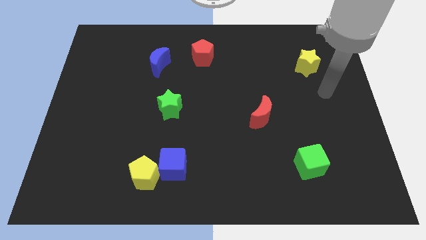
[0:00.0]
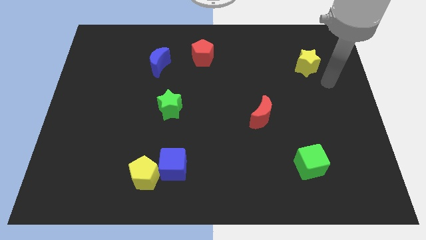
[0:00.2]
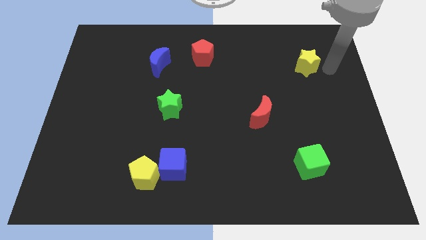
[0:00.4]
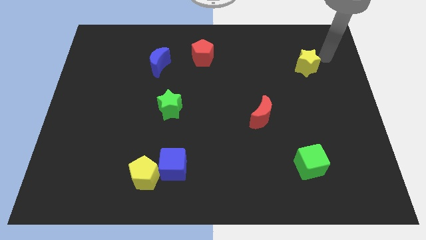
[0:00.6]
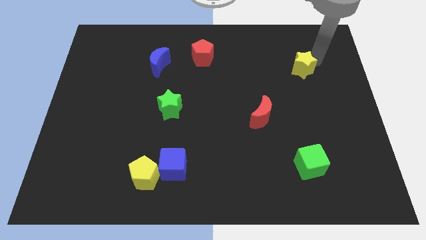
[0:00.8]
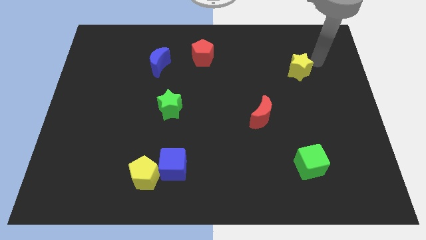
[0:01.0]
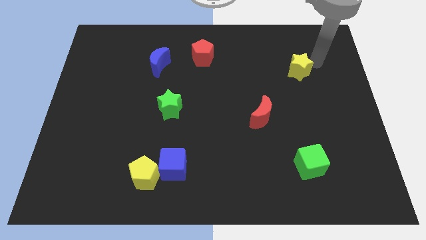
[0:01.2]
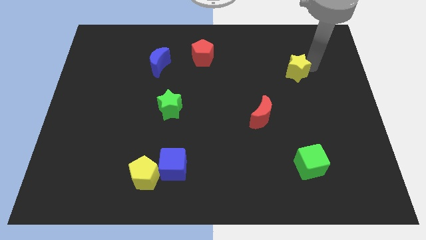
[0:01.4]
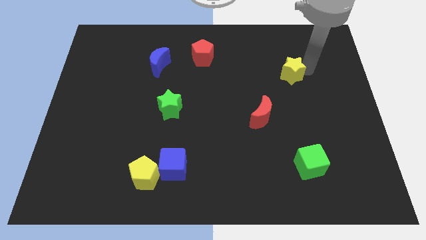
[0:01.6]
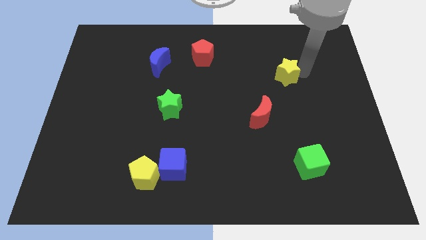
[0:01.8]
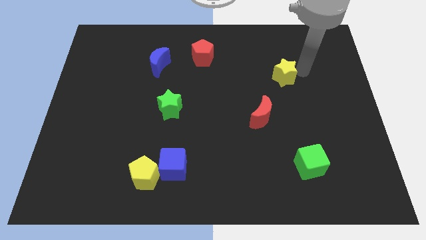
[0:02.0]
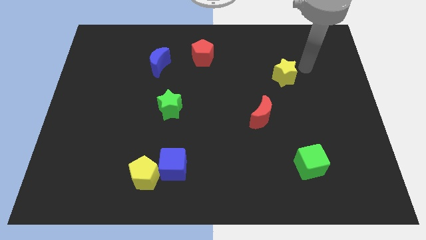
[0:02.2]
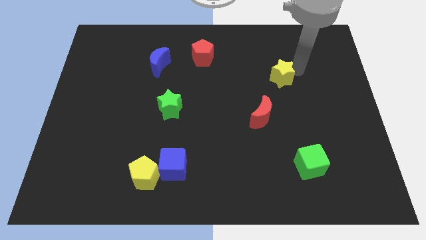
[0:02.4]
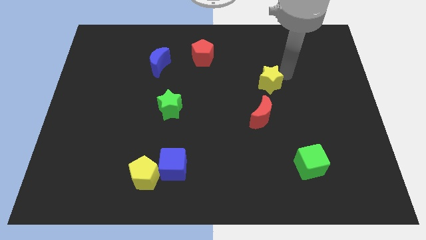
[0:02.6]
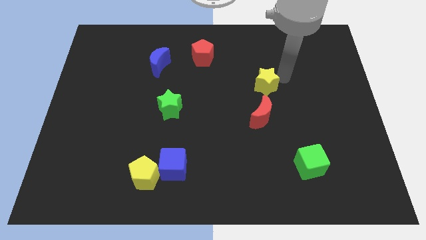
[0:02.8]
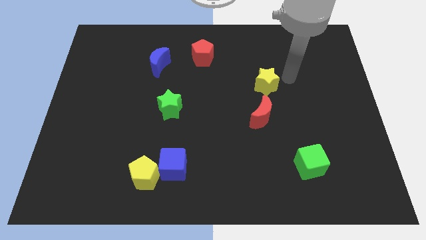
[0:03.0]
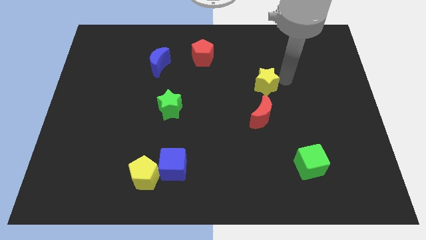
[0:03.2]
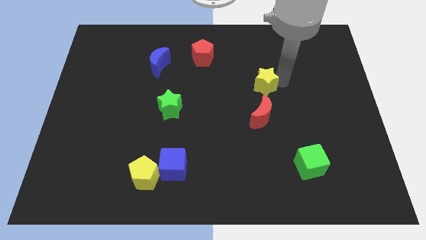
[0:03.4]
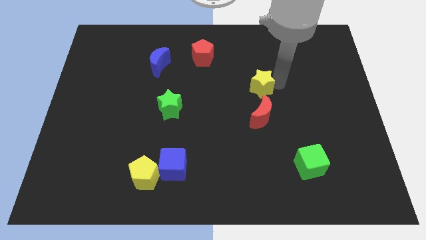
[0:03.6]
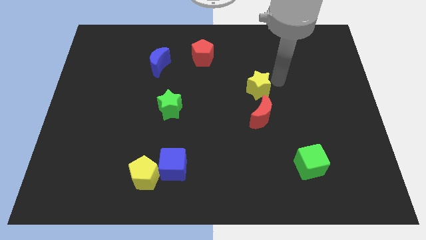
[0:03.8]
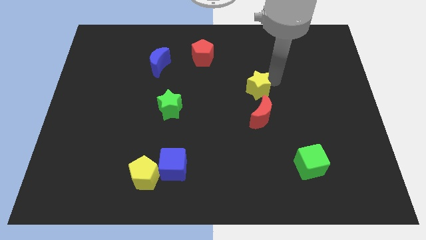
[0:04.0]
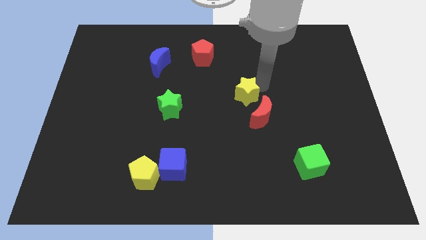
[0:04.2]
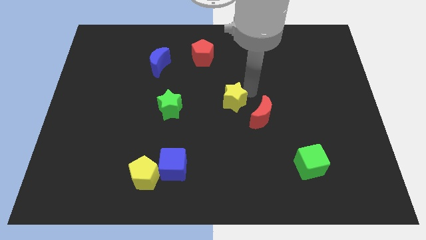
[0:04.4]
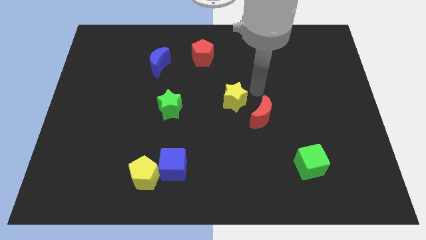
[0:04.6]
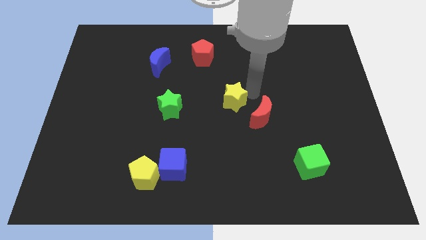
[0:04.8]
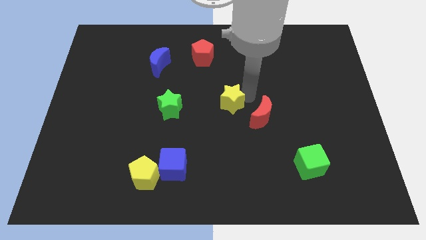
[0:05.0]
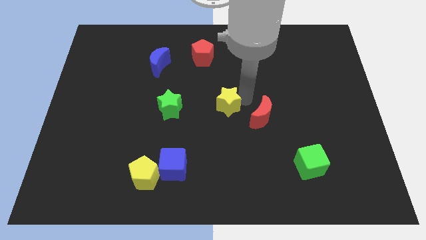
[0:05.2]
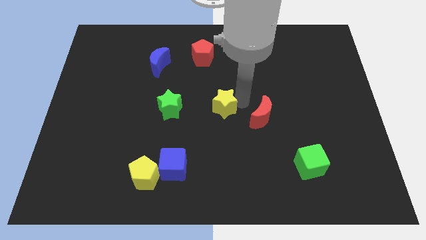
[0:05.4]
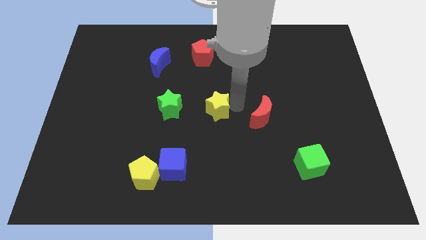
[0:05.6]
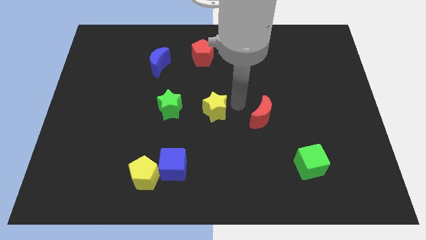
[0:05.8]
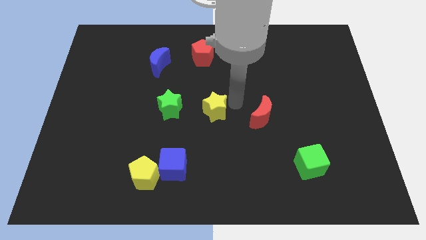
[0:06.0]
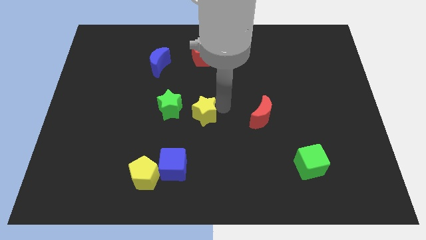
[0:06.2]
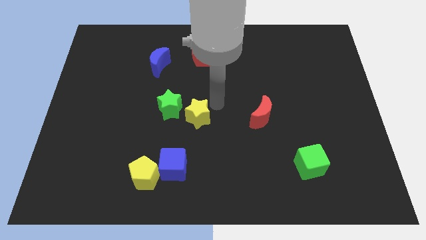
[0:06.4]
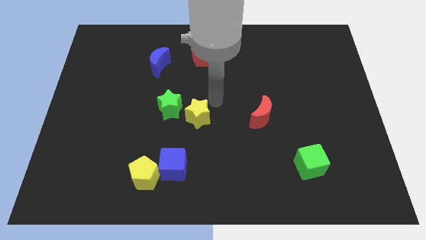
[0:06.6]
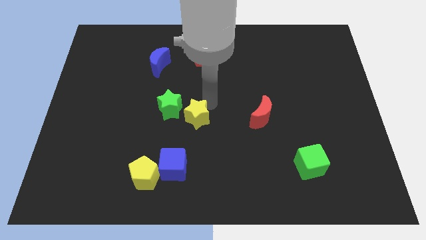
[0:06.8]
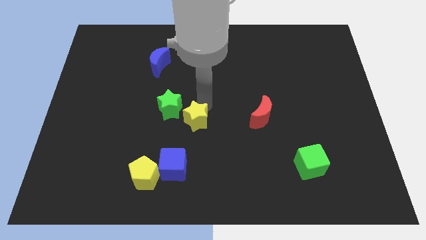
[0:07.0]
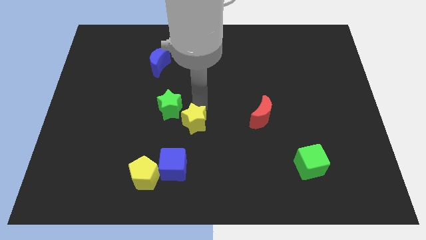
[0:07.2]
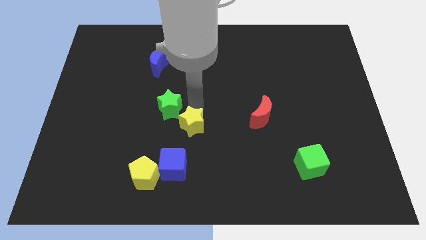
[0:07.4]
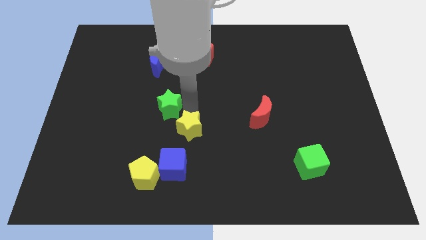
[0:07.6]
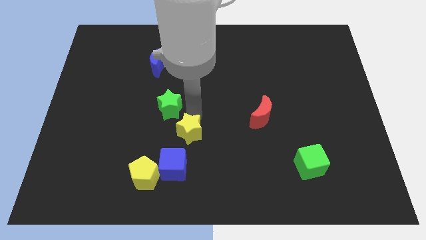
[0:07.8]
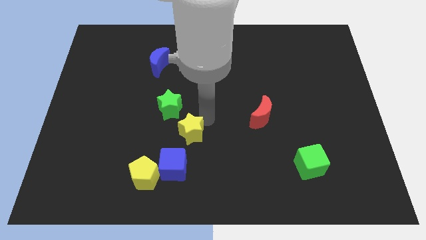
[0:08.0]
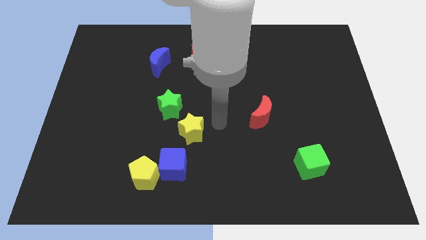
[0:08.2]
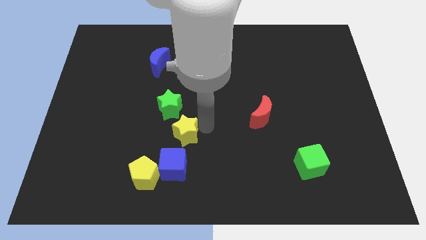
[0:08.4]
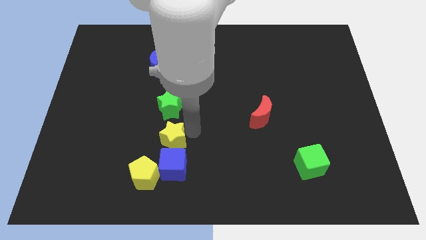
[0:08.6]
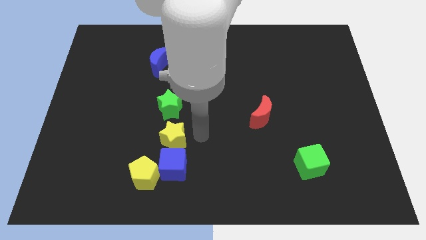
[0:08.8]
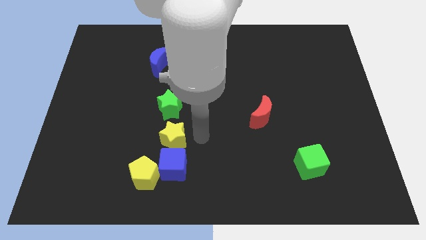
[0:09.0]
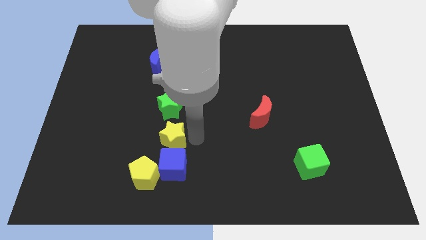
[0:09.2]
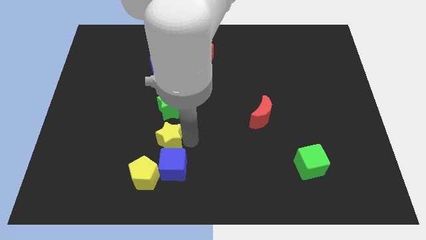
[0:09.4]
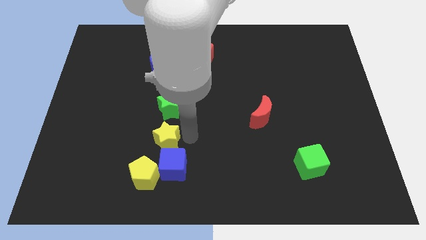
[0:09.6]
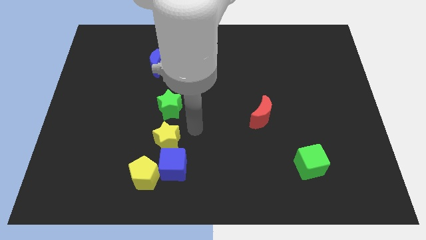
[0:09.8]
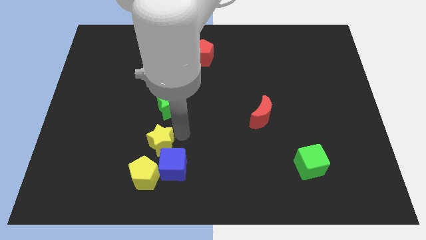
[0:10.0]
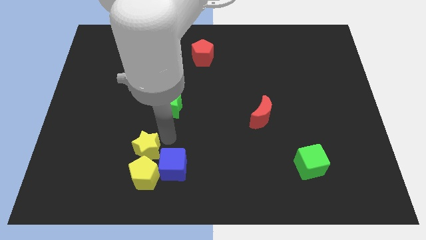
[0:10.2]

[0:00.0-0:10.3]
put the yellow star close to the yellow pentagon

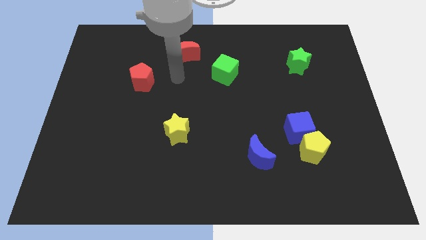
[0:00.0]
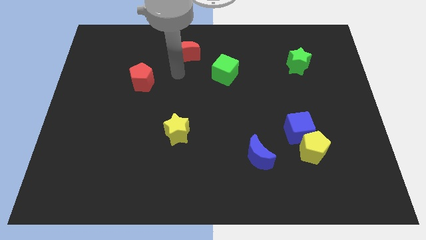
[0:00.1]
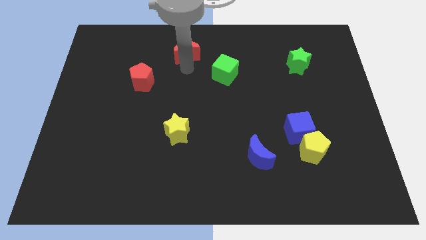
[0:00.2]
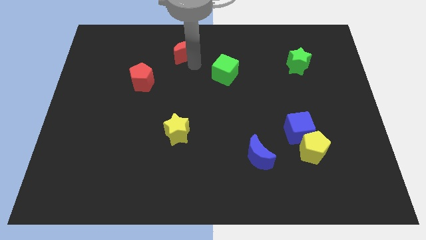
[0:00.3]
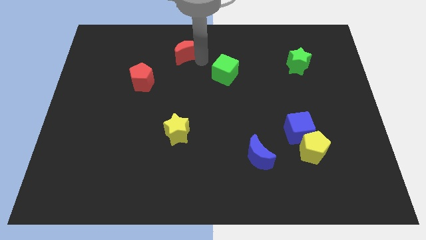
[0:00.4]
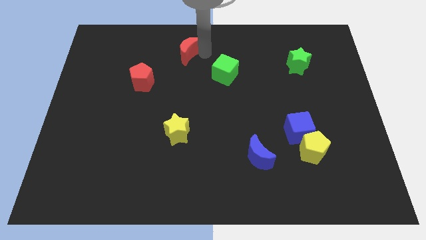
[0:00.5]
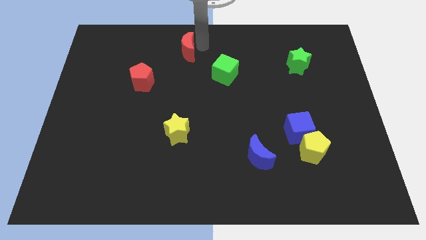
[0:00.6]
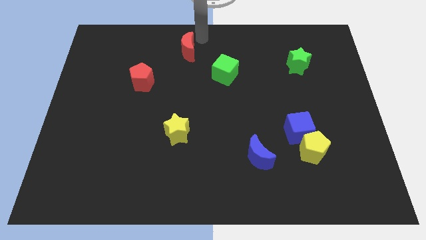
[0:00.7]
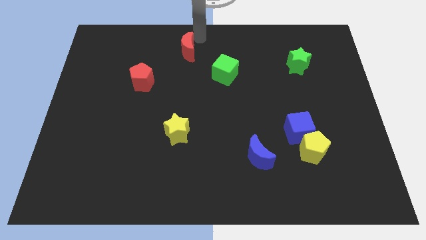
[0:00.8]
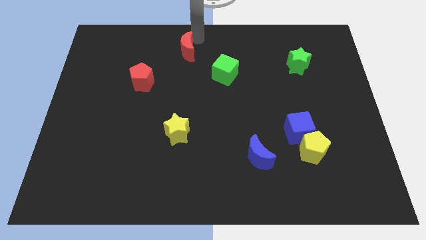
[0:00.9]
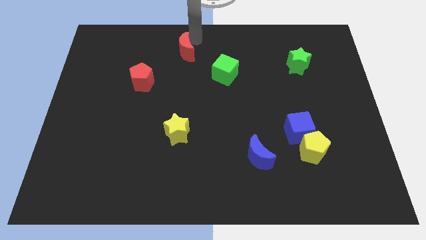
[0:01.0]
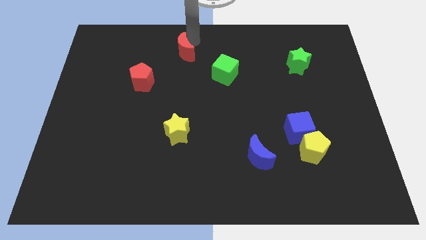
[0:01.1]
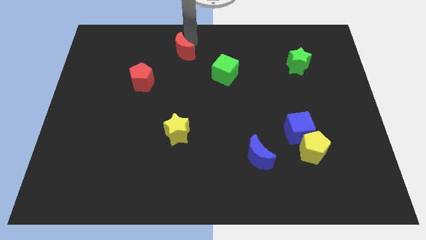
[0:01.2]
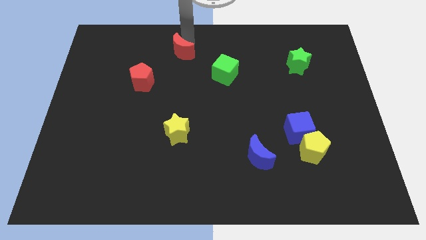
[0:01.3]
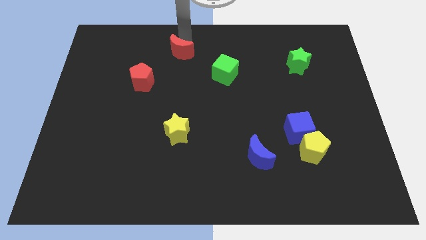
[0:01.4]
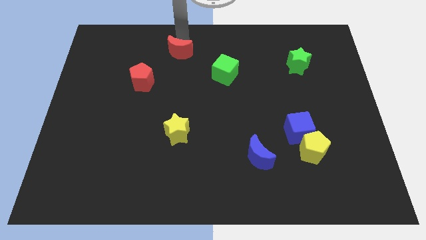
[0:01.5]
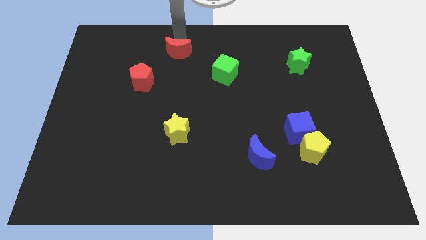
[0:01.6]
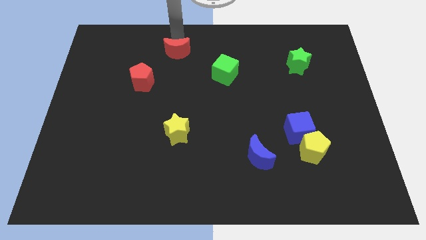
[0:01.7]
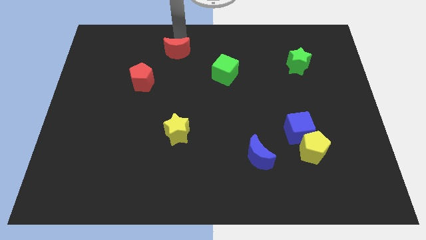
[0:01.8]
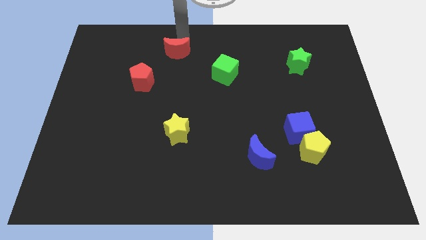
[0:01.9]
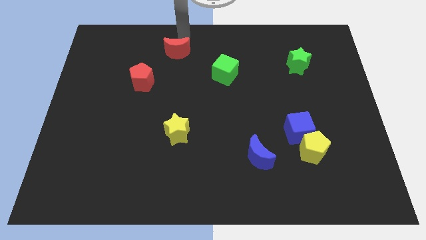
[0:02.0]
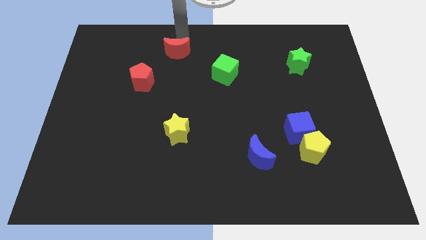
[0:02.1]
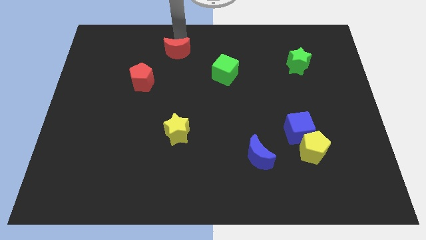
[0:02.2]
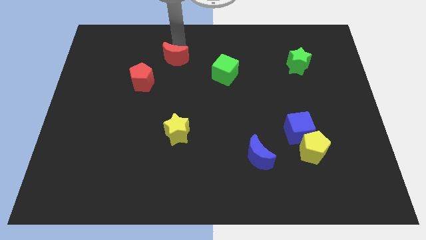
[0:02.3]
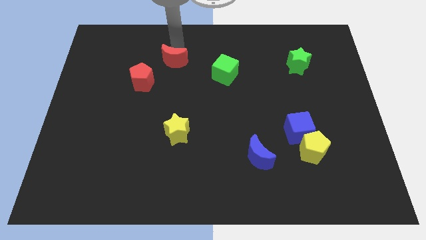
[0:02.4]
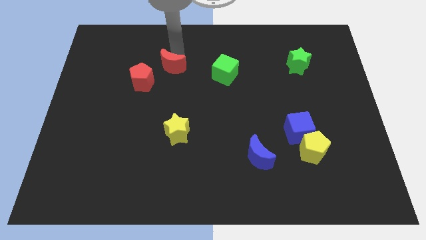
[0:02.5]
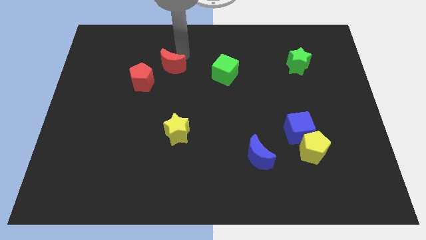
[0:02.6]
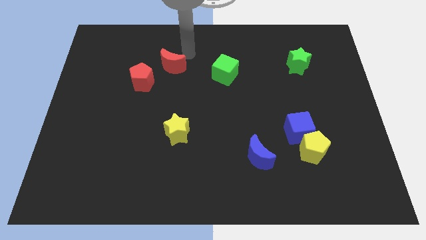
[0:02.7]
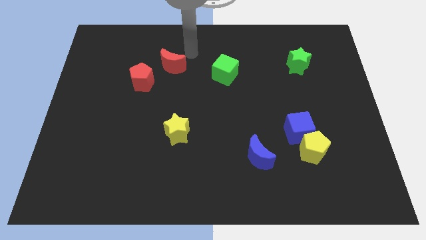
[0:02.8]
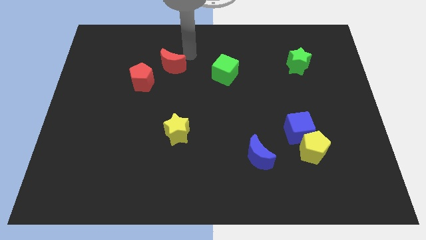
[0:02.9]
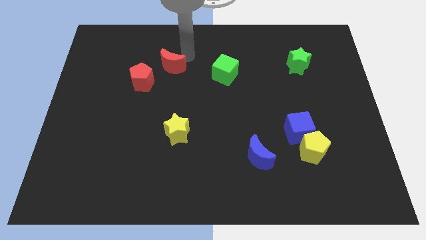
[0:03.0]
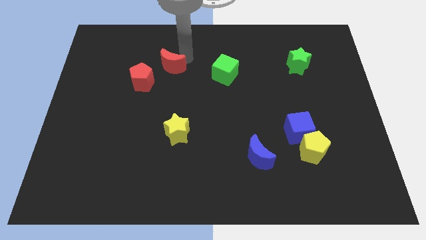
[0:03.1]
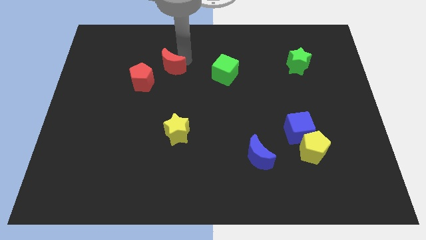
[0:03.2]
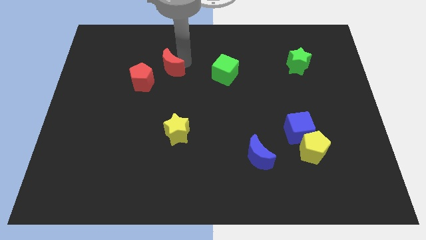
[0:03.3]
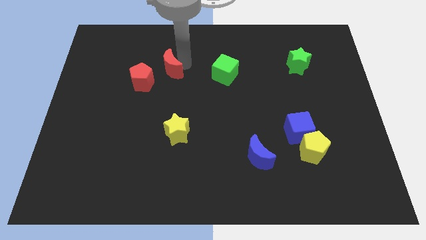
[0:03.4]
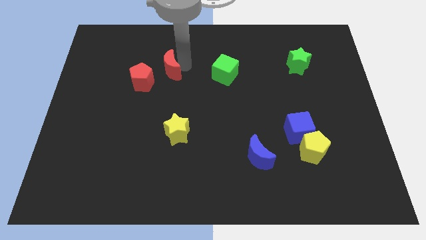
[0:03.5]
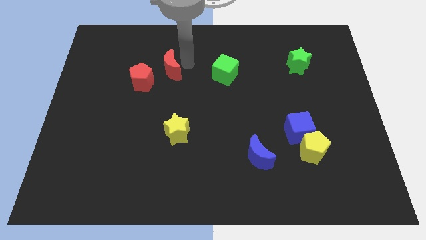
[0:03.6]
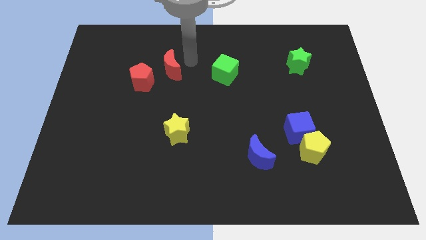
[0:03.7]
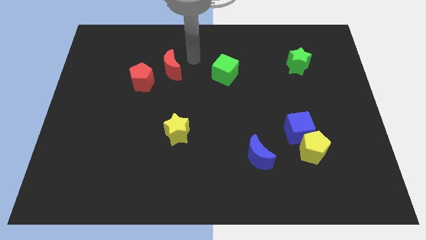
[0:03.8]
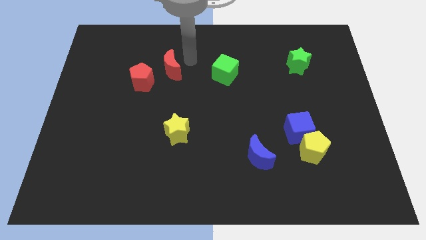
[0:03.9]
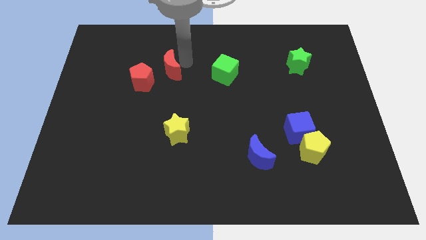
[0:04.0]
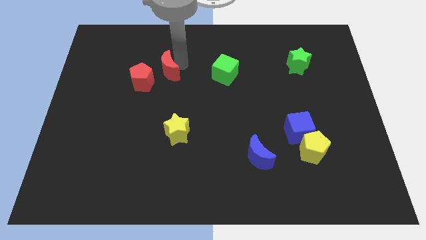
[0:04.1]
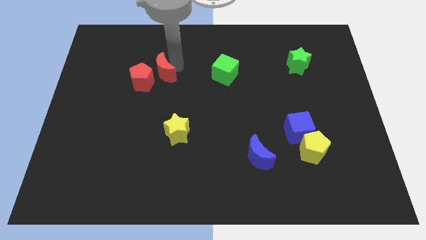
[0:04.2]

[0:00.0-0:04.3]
slide the red moon next to the red pentagon
